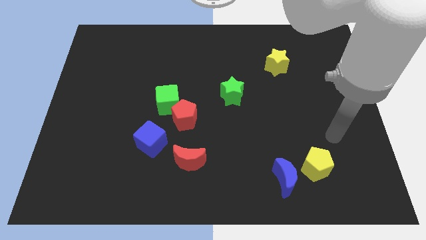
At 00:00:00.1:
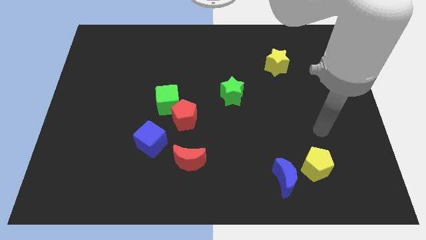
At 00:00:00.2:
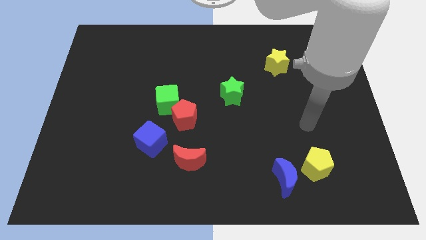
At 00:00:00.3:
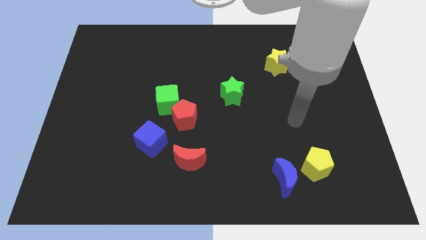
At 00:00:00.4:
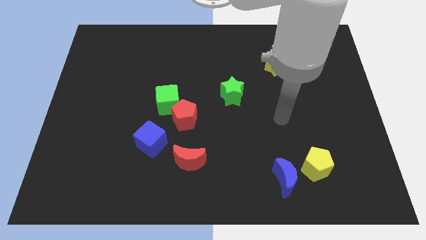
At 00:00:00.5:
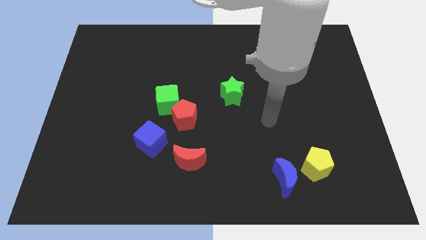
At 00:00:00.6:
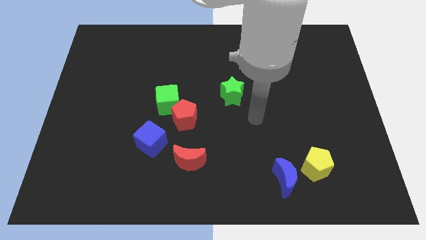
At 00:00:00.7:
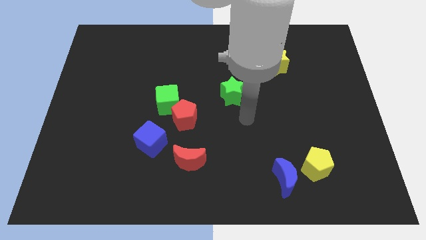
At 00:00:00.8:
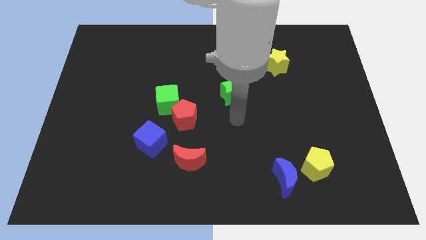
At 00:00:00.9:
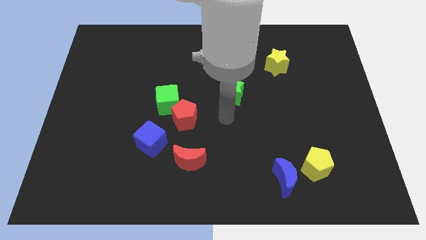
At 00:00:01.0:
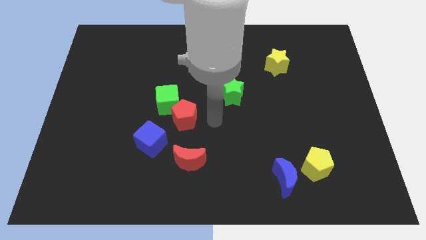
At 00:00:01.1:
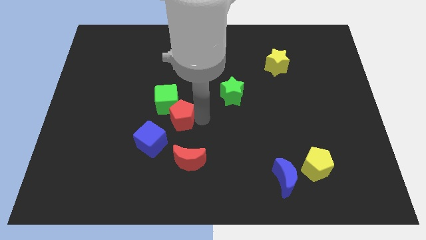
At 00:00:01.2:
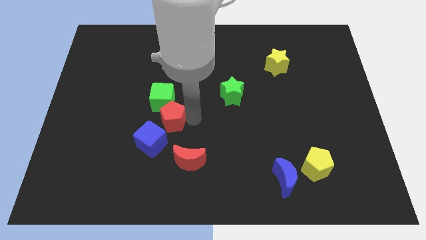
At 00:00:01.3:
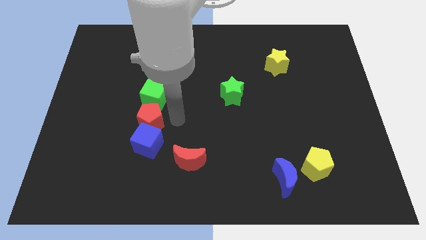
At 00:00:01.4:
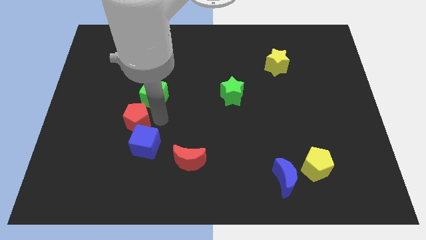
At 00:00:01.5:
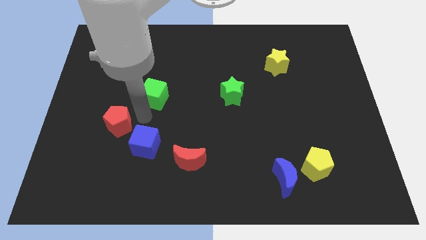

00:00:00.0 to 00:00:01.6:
separate the green cube from the red pentagon

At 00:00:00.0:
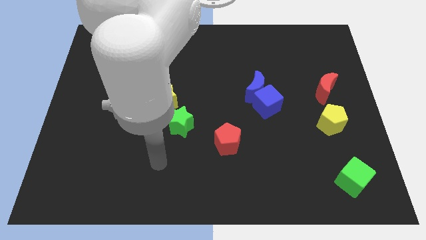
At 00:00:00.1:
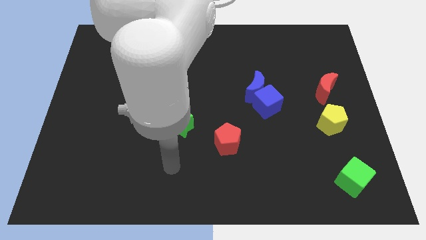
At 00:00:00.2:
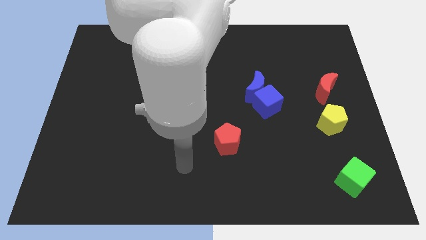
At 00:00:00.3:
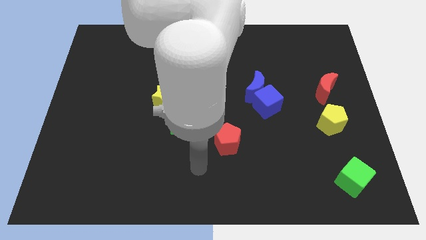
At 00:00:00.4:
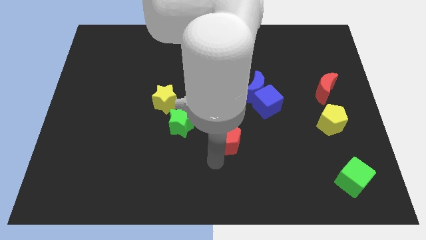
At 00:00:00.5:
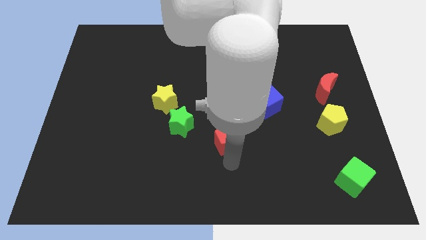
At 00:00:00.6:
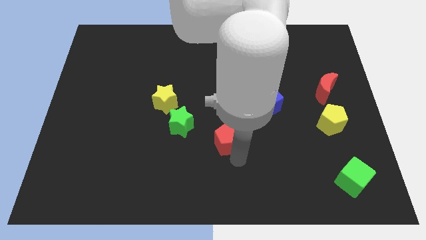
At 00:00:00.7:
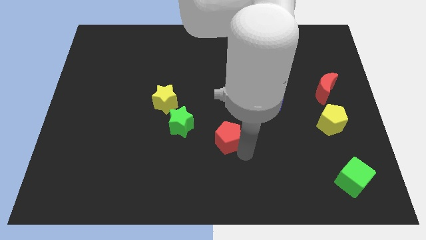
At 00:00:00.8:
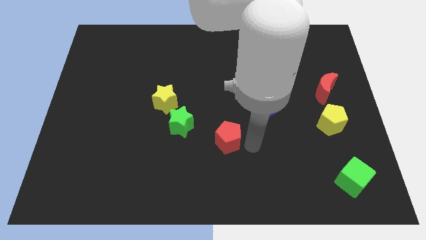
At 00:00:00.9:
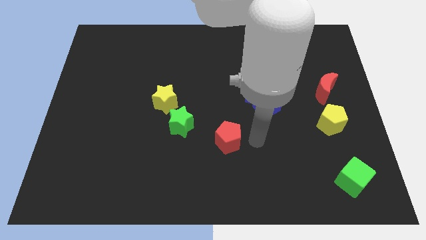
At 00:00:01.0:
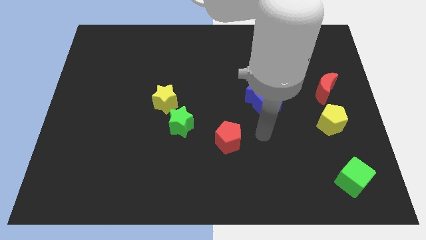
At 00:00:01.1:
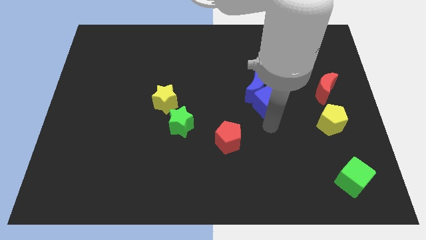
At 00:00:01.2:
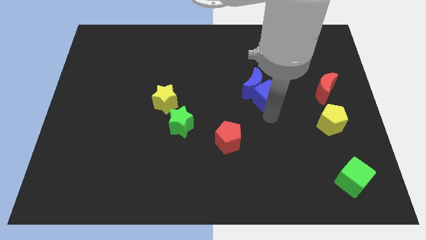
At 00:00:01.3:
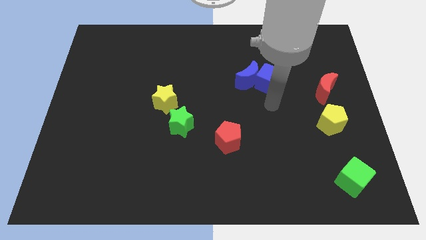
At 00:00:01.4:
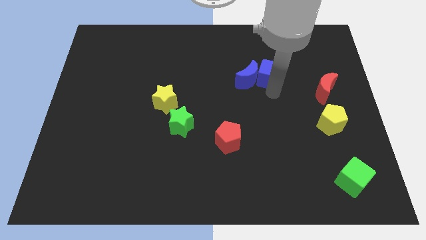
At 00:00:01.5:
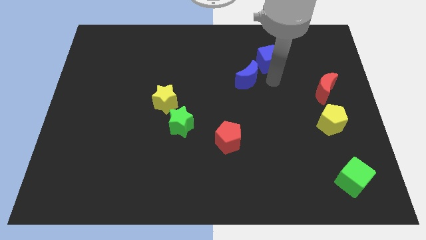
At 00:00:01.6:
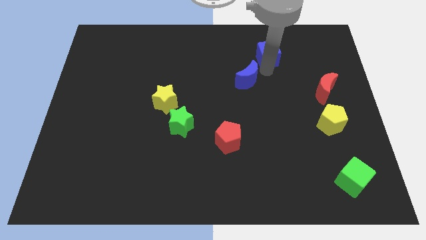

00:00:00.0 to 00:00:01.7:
pull the blue moon apart from the blue cube

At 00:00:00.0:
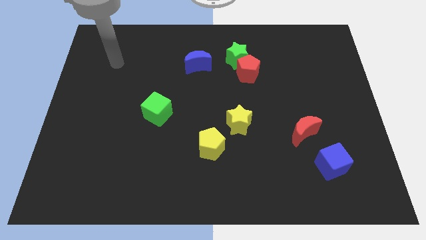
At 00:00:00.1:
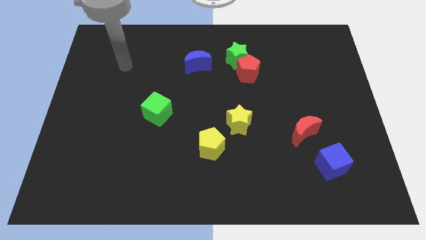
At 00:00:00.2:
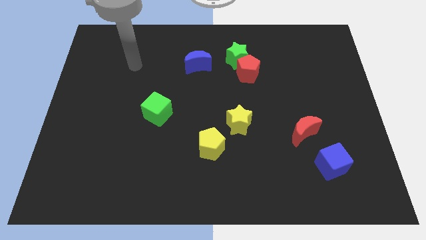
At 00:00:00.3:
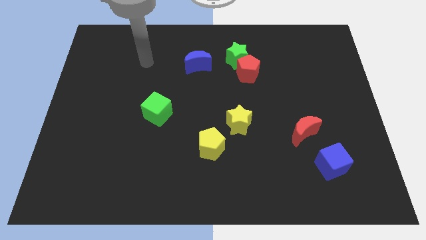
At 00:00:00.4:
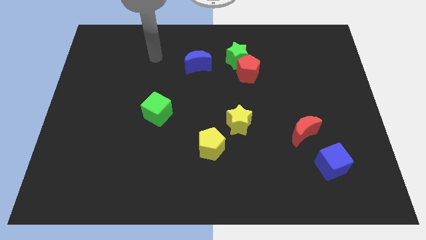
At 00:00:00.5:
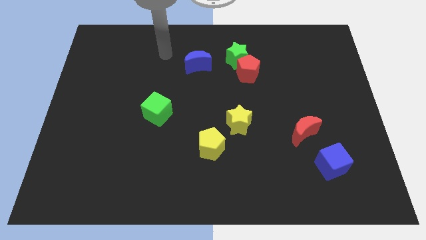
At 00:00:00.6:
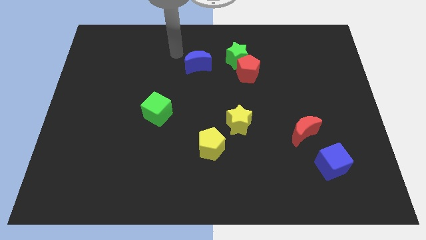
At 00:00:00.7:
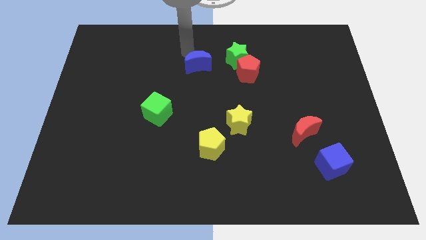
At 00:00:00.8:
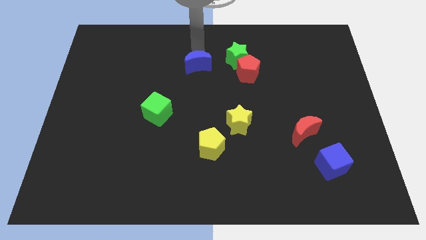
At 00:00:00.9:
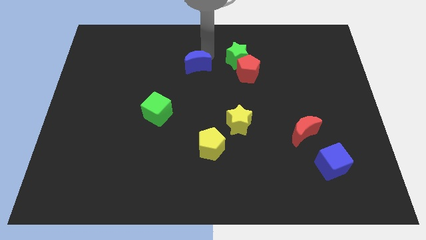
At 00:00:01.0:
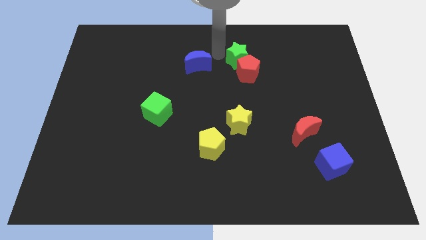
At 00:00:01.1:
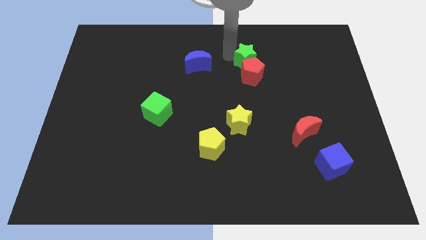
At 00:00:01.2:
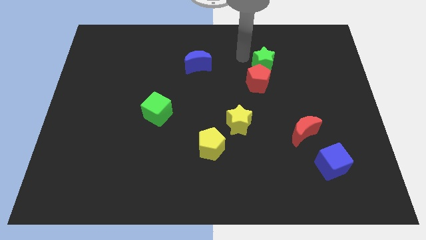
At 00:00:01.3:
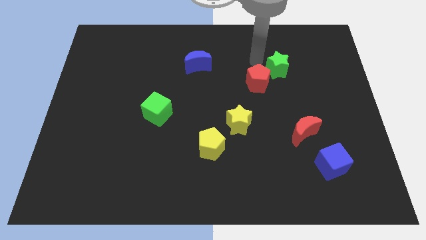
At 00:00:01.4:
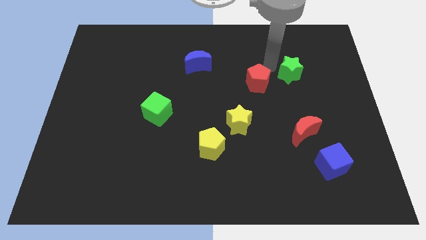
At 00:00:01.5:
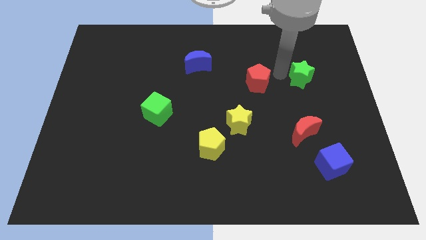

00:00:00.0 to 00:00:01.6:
separate the red pentagon from the green star

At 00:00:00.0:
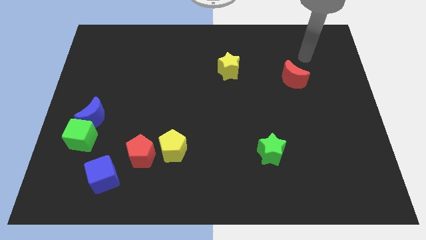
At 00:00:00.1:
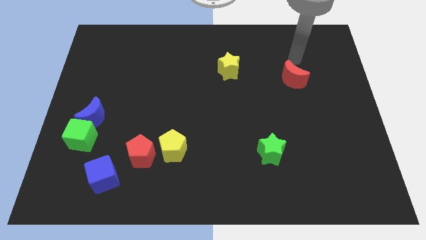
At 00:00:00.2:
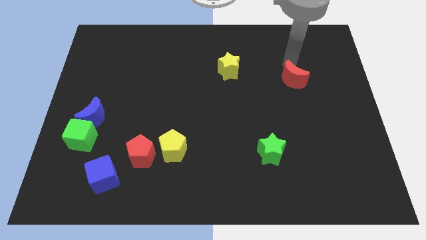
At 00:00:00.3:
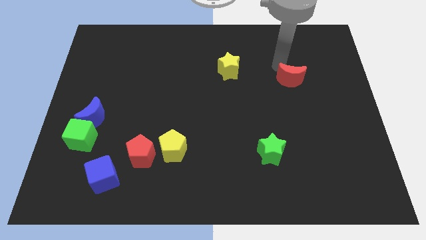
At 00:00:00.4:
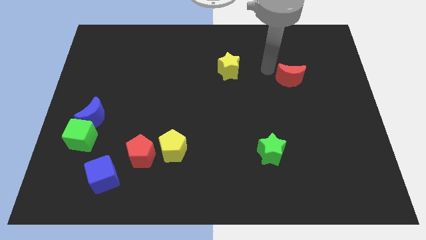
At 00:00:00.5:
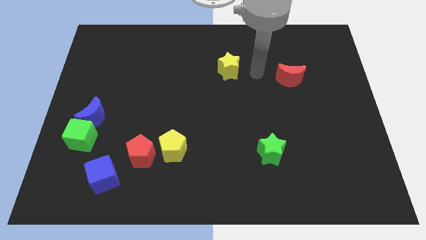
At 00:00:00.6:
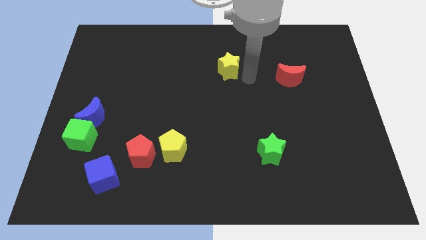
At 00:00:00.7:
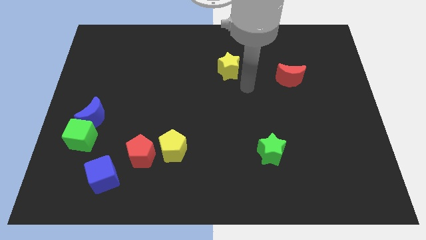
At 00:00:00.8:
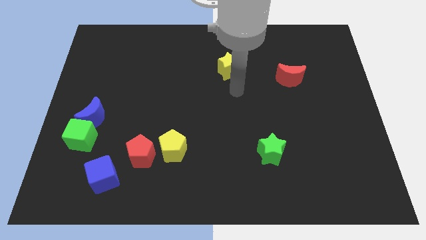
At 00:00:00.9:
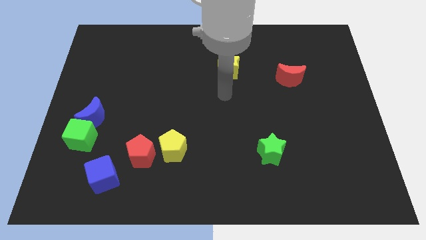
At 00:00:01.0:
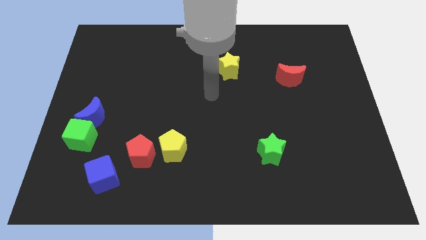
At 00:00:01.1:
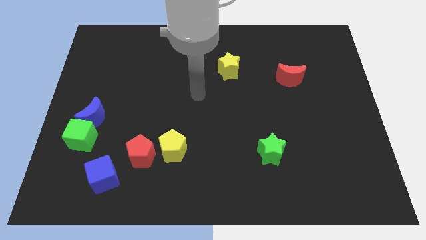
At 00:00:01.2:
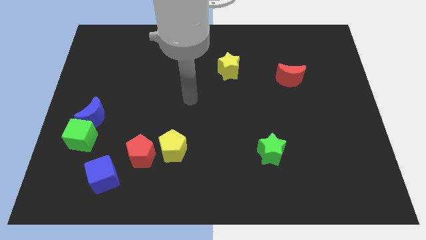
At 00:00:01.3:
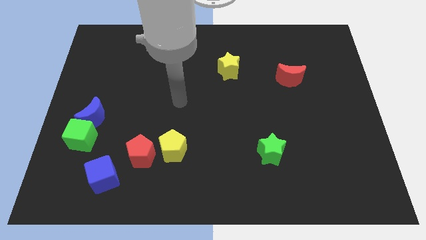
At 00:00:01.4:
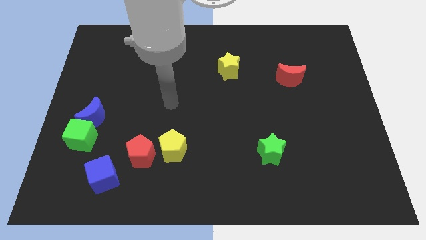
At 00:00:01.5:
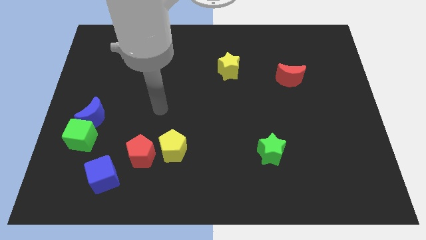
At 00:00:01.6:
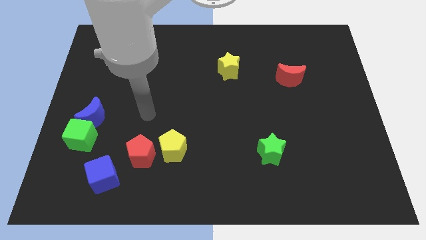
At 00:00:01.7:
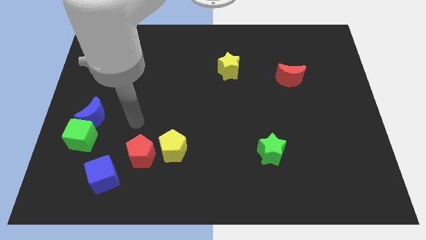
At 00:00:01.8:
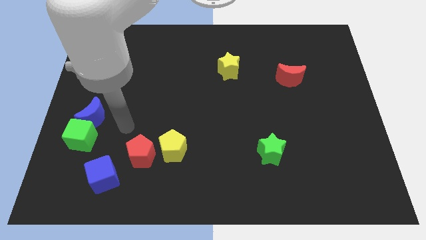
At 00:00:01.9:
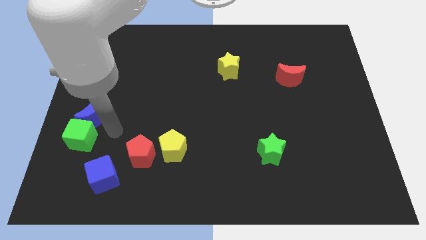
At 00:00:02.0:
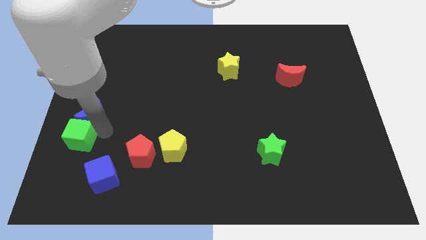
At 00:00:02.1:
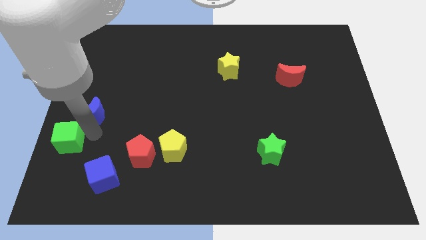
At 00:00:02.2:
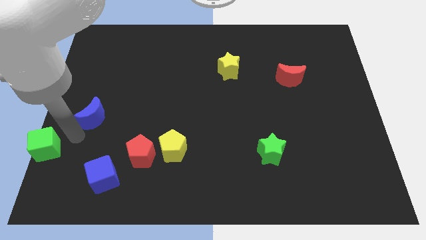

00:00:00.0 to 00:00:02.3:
pull the blue moon apart from the green cube

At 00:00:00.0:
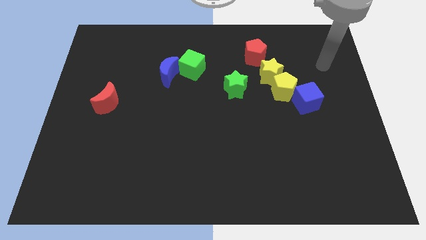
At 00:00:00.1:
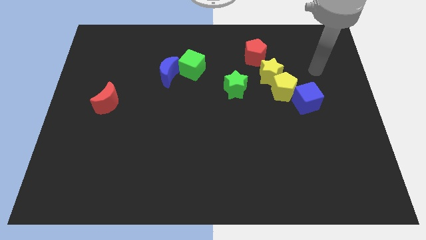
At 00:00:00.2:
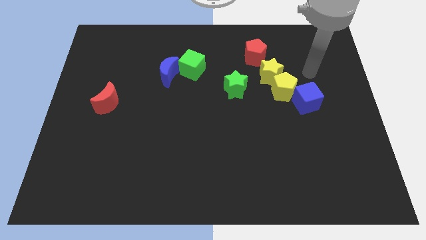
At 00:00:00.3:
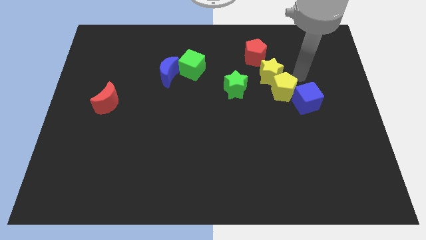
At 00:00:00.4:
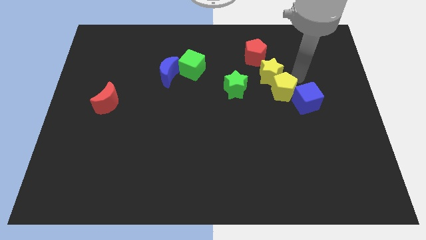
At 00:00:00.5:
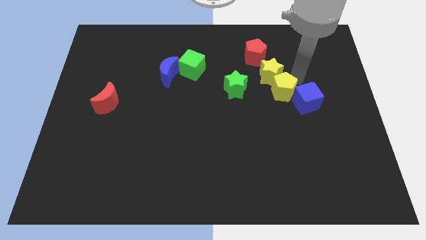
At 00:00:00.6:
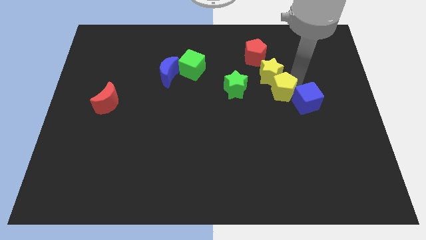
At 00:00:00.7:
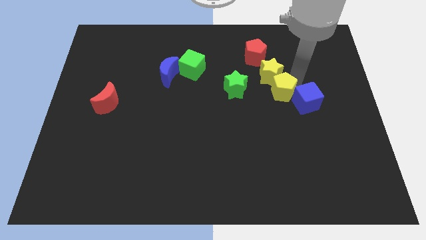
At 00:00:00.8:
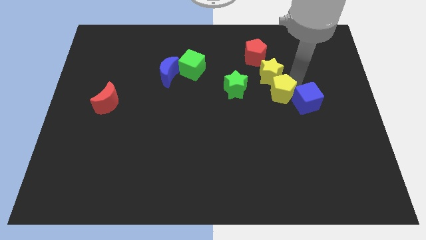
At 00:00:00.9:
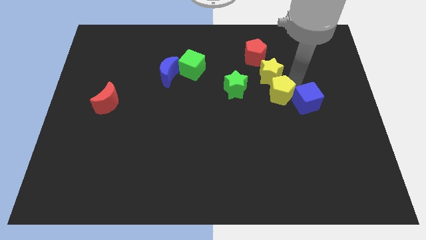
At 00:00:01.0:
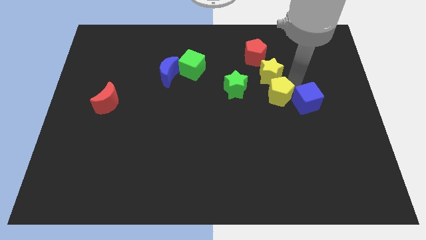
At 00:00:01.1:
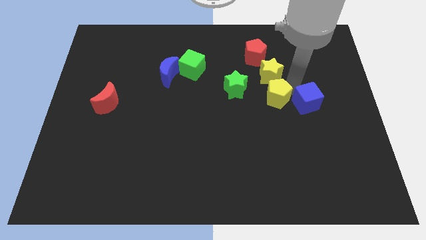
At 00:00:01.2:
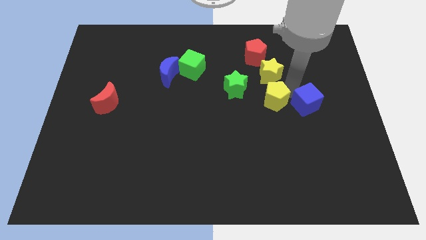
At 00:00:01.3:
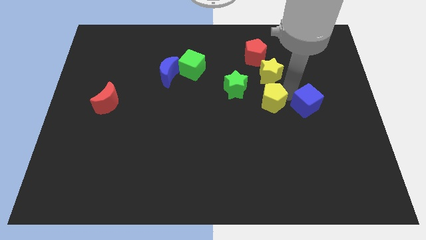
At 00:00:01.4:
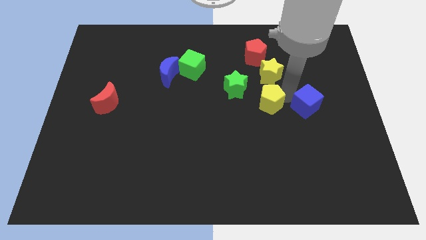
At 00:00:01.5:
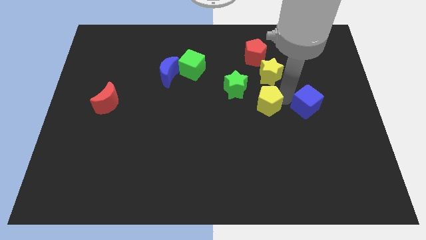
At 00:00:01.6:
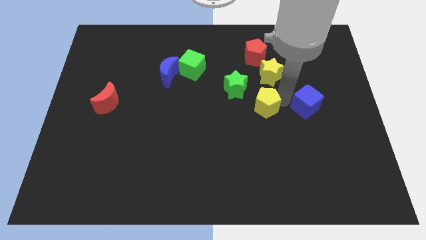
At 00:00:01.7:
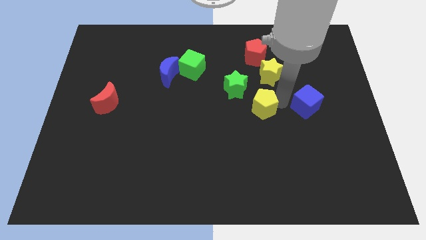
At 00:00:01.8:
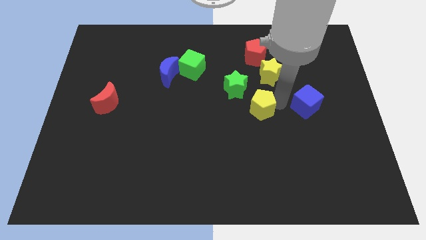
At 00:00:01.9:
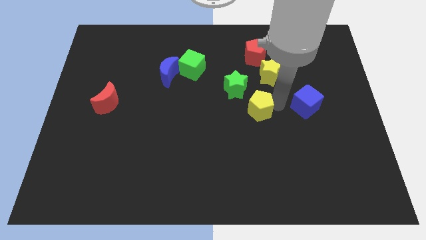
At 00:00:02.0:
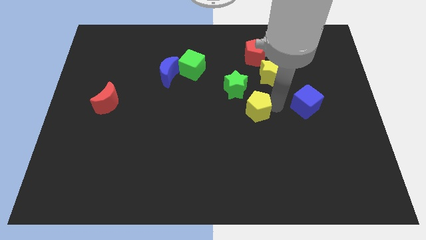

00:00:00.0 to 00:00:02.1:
separate the yellow pentagon from the yellow star and blue cube
